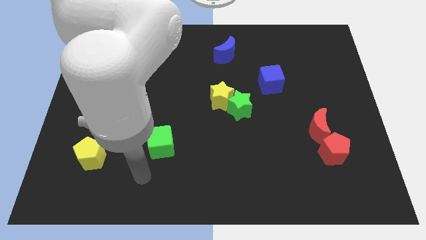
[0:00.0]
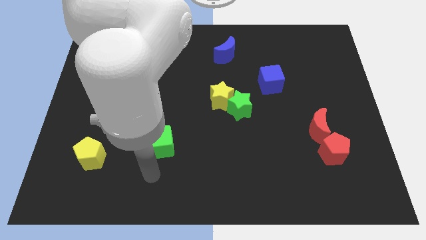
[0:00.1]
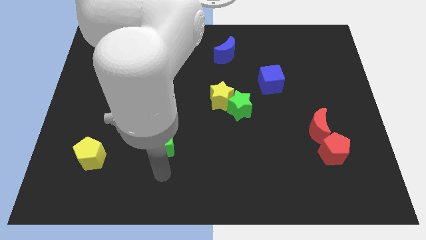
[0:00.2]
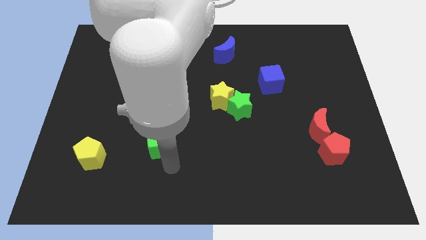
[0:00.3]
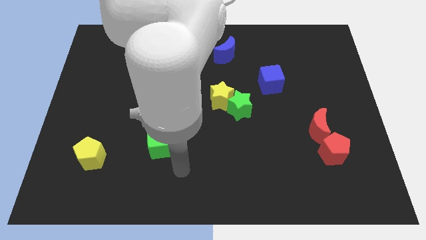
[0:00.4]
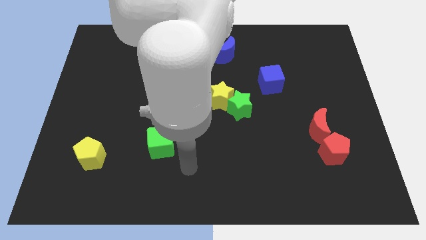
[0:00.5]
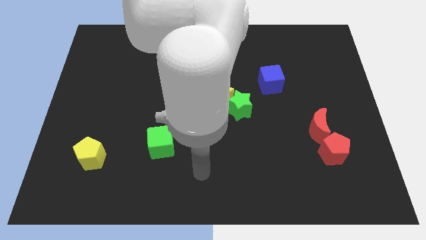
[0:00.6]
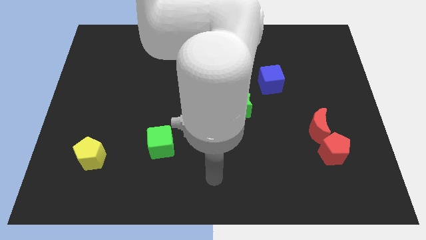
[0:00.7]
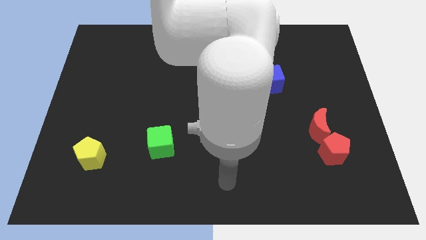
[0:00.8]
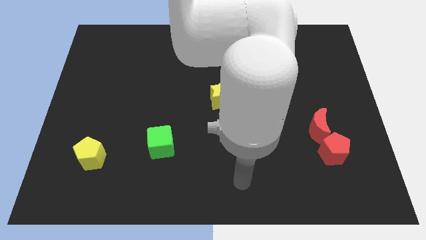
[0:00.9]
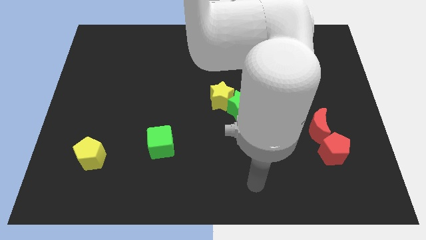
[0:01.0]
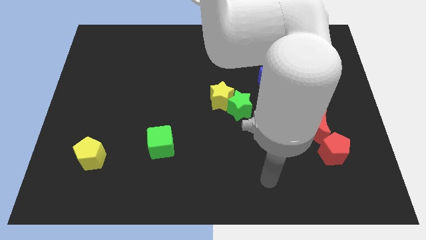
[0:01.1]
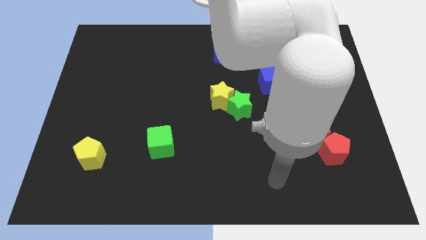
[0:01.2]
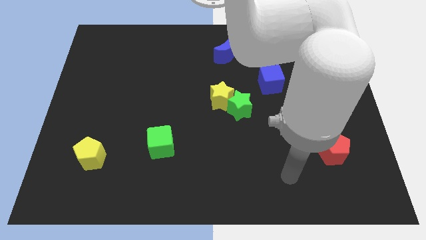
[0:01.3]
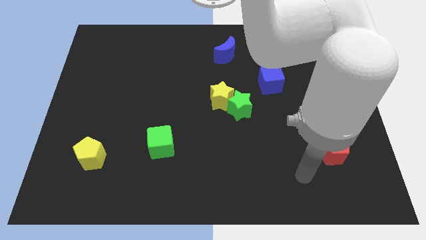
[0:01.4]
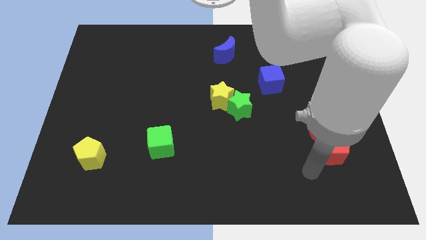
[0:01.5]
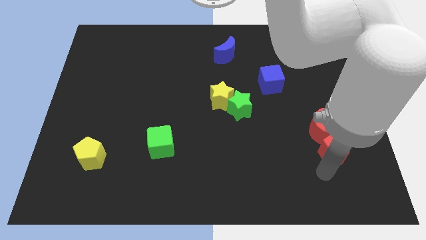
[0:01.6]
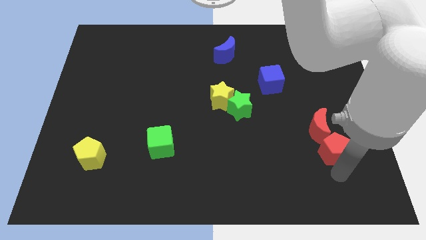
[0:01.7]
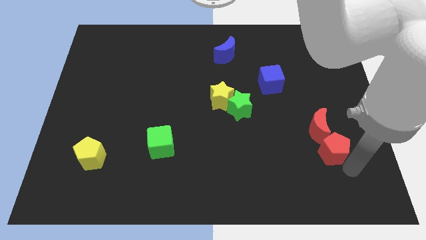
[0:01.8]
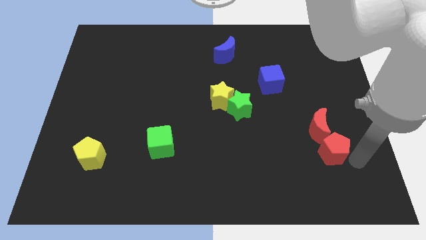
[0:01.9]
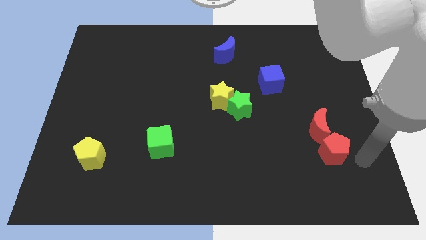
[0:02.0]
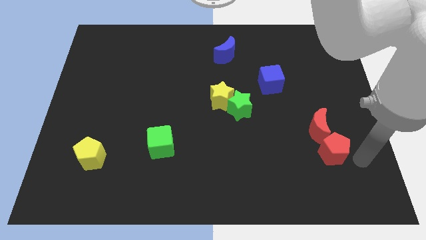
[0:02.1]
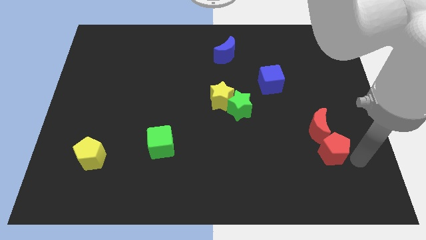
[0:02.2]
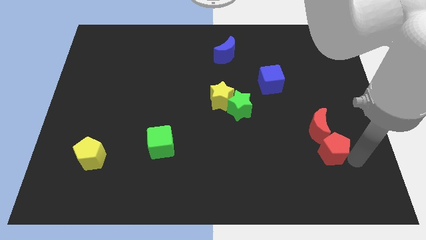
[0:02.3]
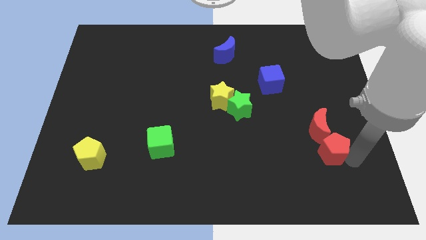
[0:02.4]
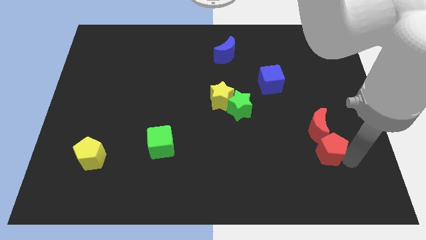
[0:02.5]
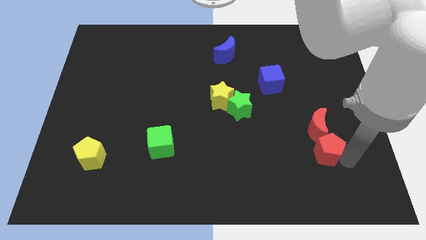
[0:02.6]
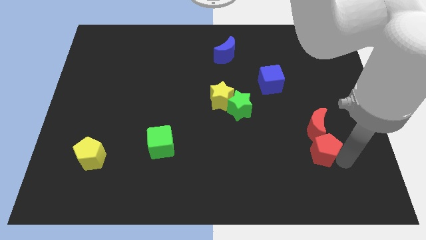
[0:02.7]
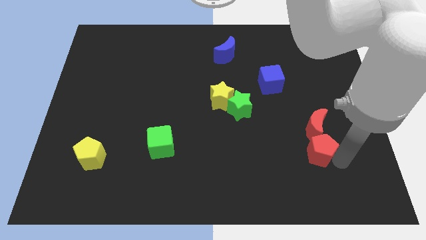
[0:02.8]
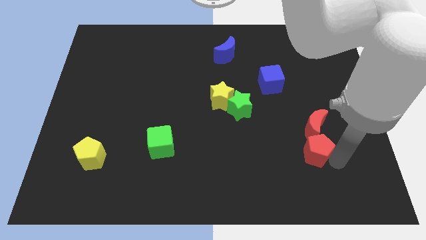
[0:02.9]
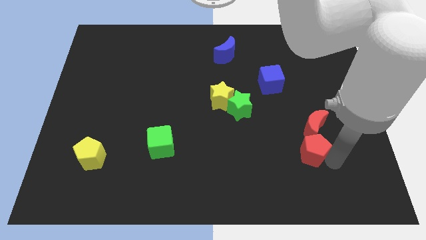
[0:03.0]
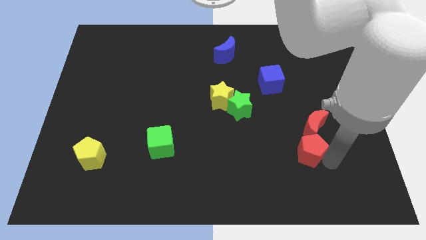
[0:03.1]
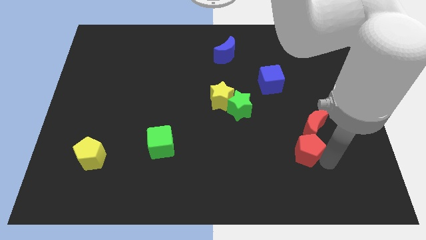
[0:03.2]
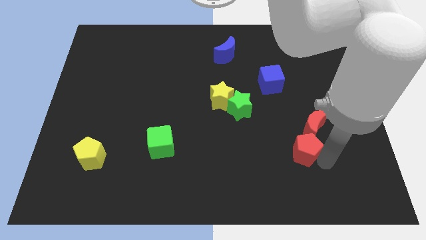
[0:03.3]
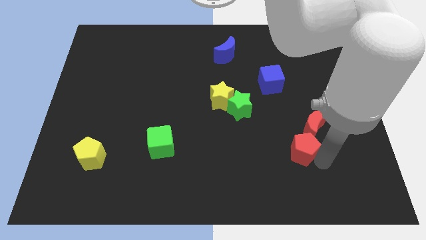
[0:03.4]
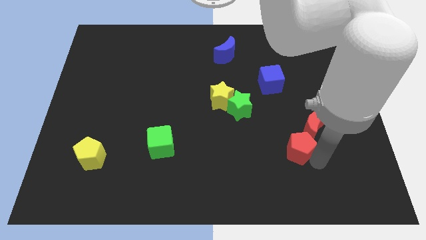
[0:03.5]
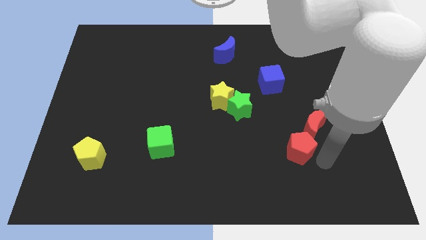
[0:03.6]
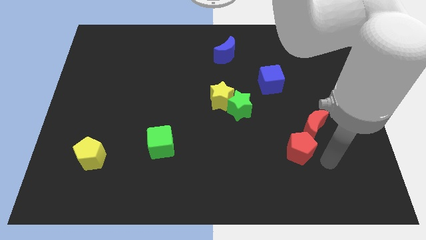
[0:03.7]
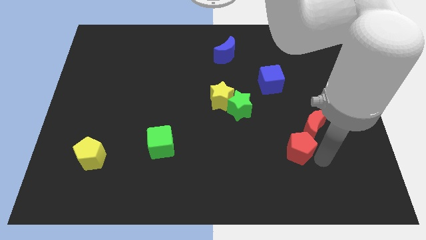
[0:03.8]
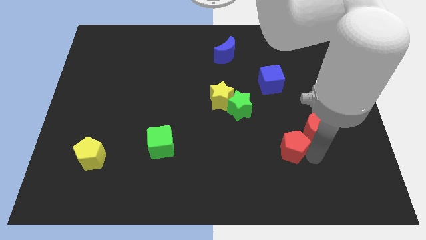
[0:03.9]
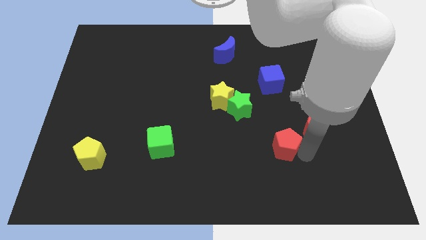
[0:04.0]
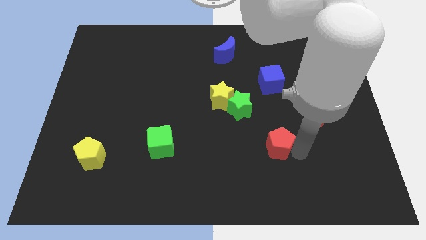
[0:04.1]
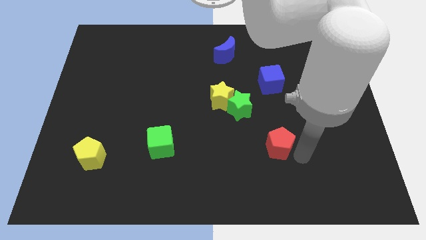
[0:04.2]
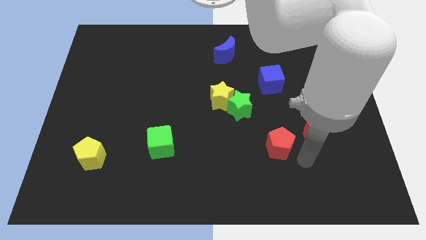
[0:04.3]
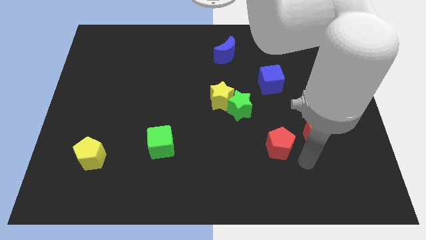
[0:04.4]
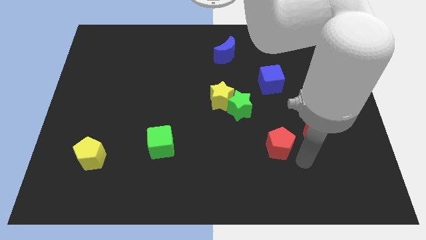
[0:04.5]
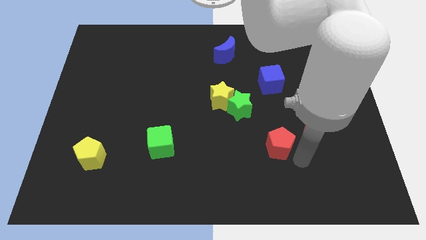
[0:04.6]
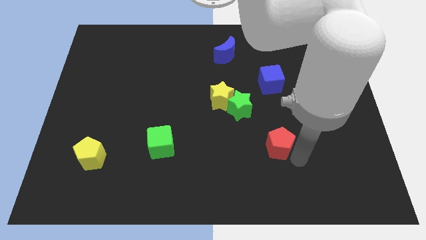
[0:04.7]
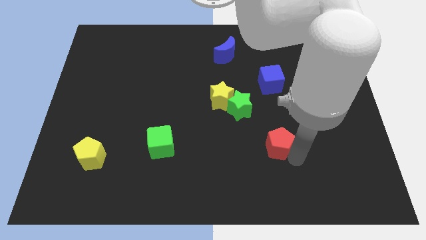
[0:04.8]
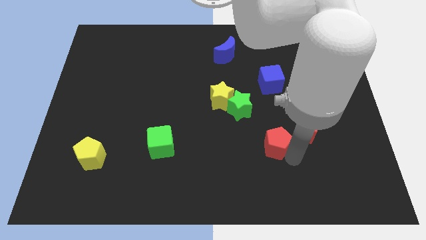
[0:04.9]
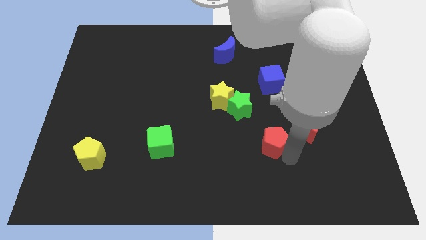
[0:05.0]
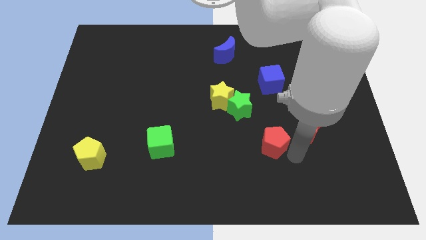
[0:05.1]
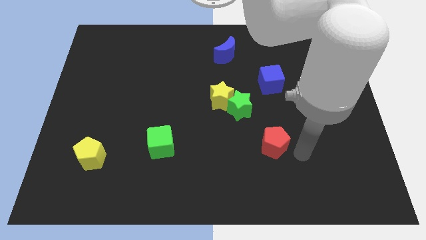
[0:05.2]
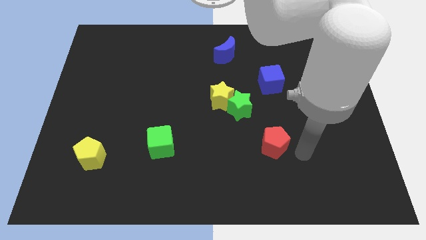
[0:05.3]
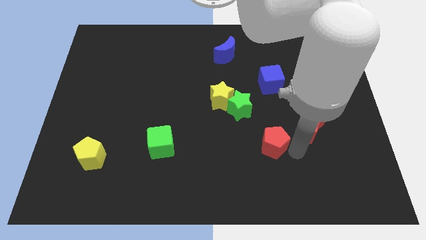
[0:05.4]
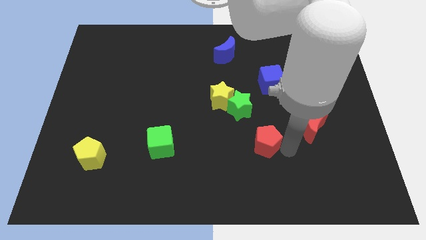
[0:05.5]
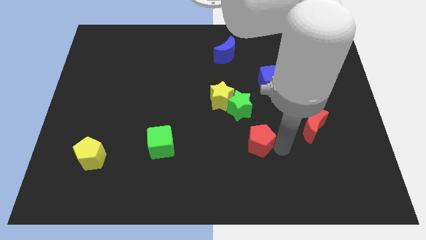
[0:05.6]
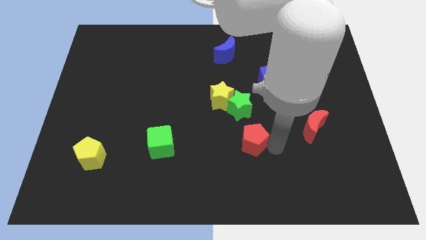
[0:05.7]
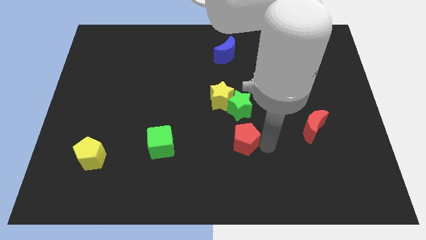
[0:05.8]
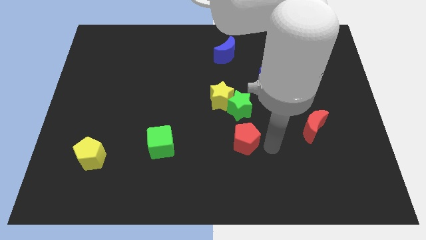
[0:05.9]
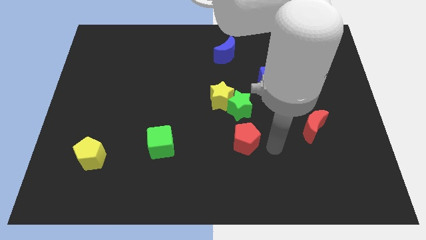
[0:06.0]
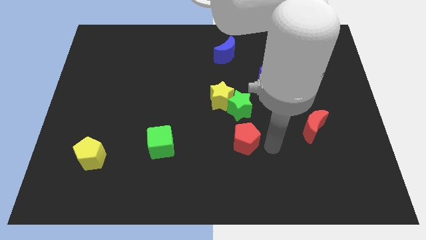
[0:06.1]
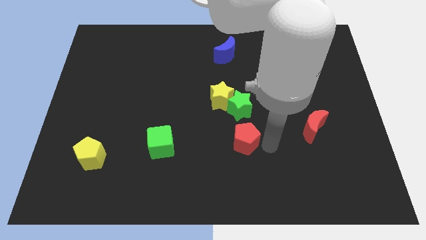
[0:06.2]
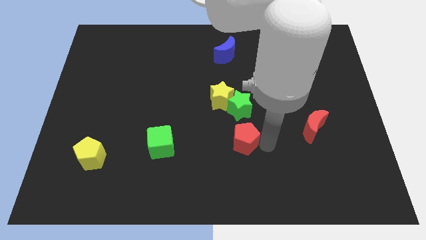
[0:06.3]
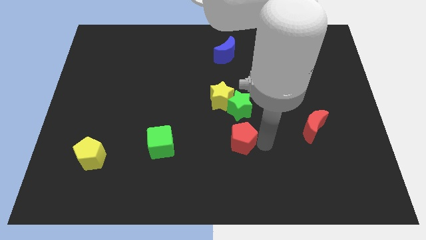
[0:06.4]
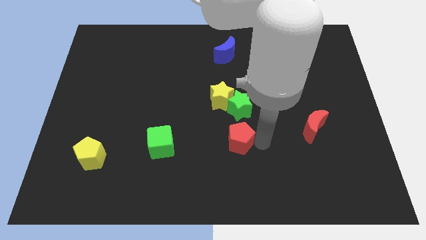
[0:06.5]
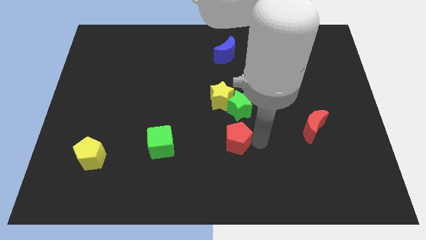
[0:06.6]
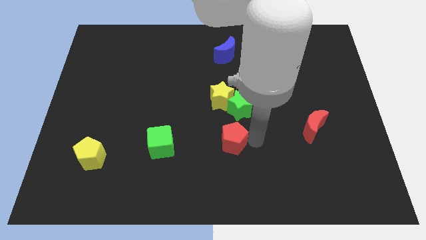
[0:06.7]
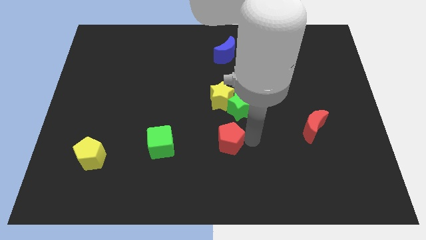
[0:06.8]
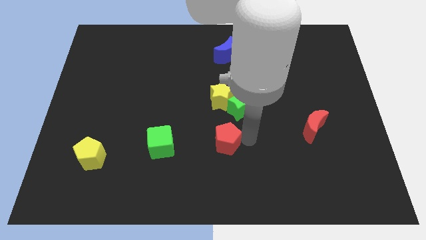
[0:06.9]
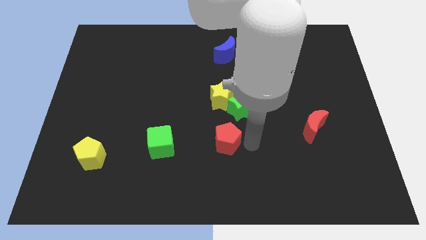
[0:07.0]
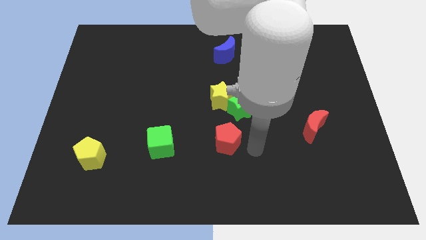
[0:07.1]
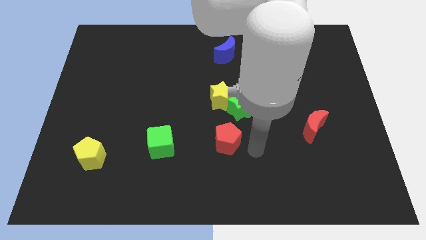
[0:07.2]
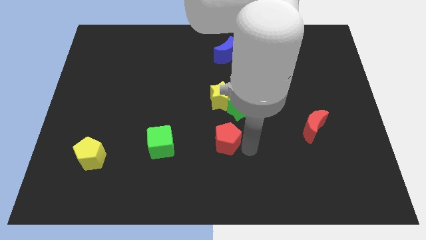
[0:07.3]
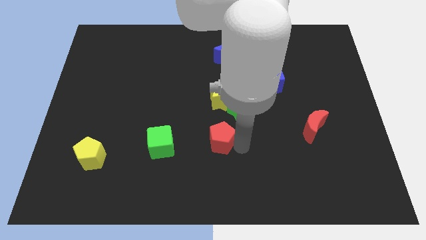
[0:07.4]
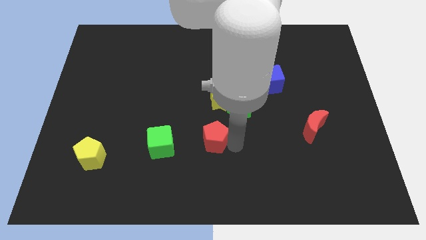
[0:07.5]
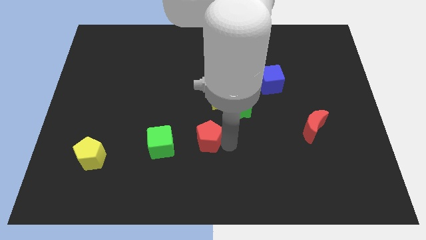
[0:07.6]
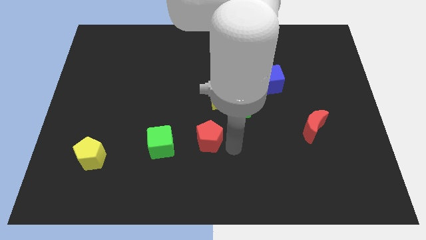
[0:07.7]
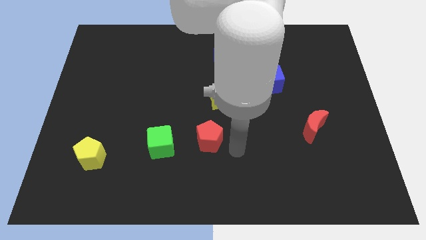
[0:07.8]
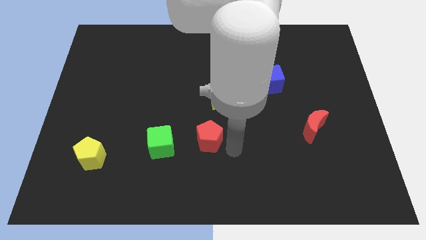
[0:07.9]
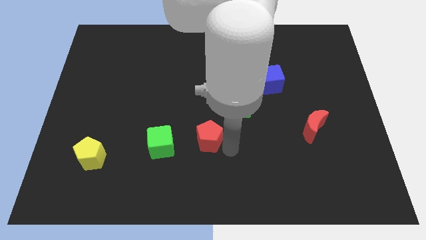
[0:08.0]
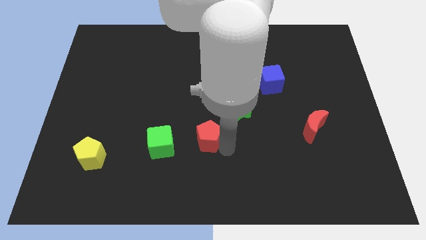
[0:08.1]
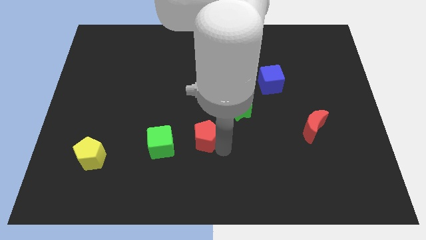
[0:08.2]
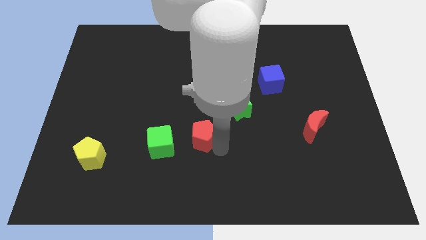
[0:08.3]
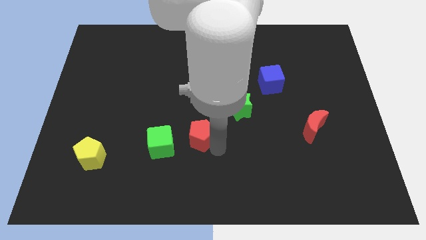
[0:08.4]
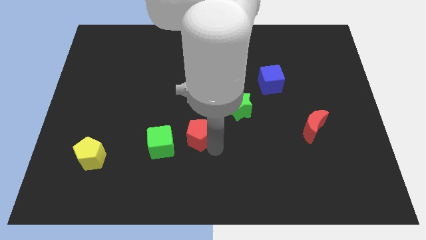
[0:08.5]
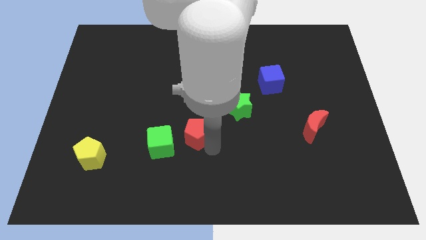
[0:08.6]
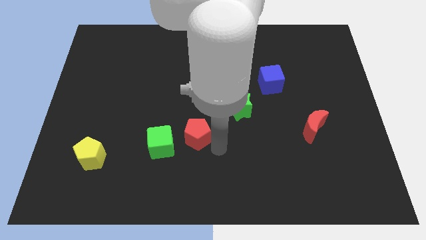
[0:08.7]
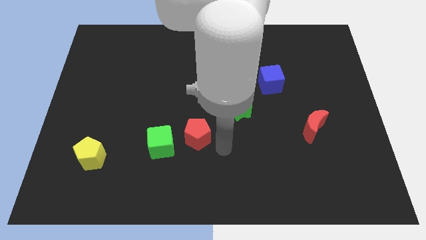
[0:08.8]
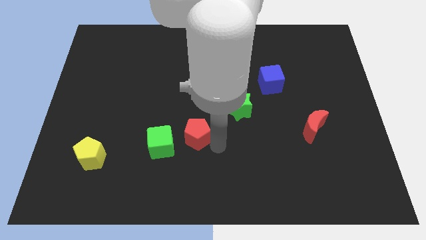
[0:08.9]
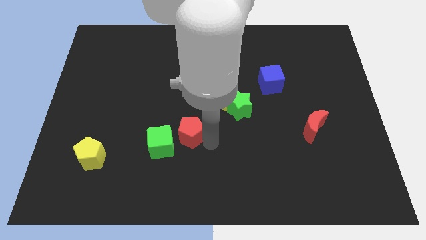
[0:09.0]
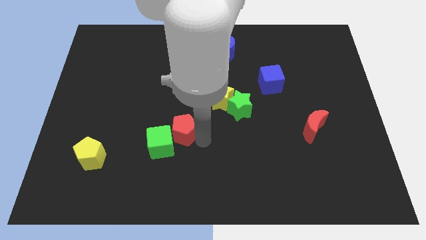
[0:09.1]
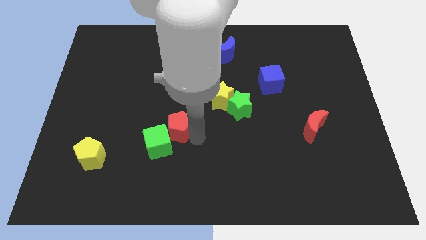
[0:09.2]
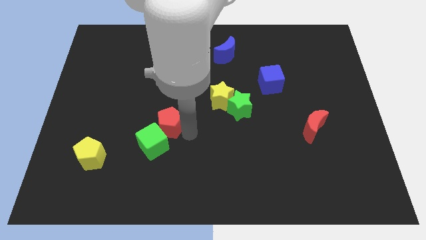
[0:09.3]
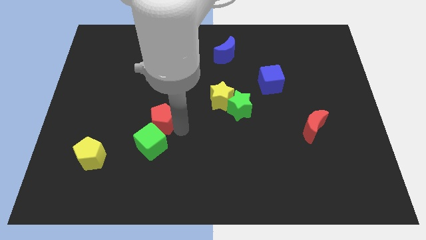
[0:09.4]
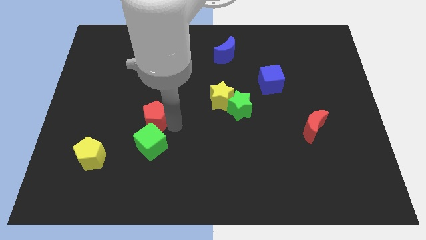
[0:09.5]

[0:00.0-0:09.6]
move the red pentagon diagonally up and to the left of the green cube
